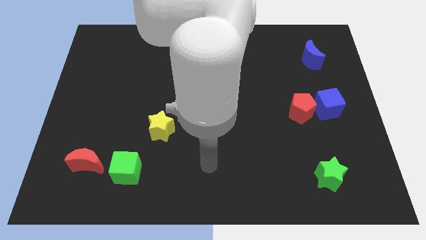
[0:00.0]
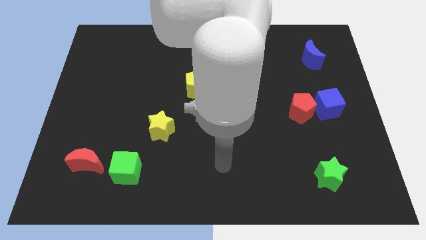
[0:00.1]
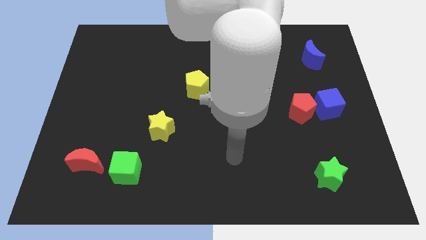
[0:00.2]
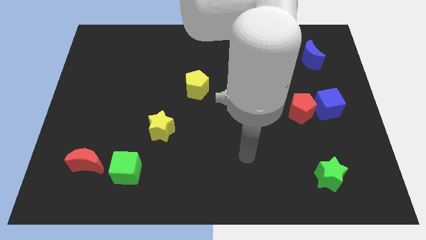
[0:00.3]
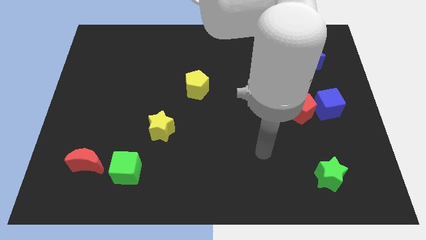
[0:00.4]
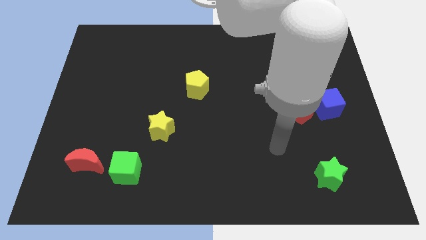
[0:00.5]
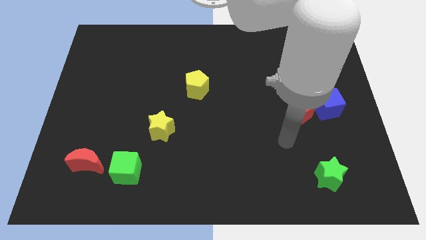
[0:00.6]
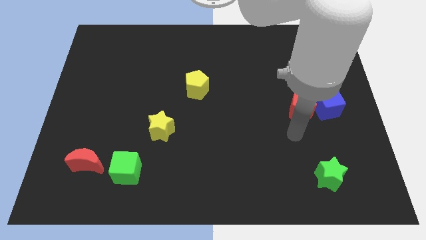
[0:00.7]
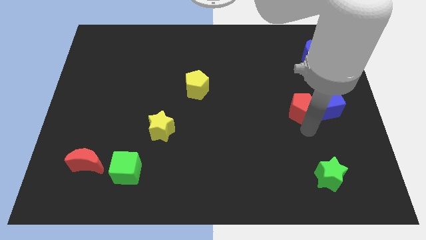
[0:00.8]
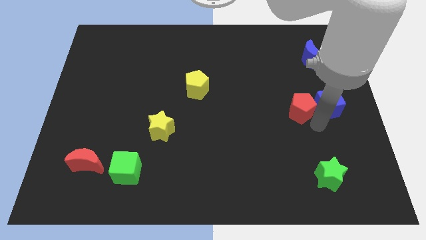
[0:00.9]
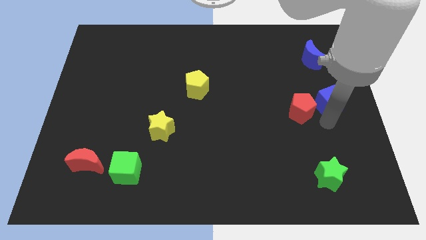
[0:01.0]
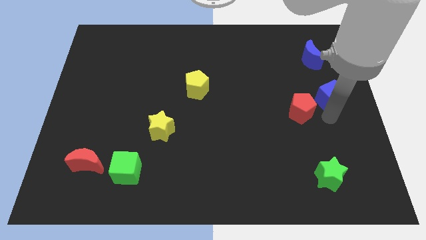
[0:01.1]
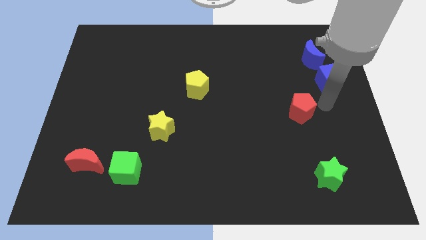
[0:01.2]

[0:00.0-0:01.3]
move the red pentagon away from the blue cube

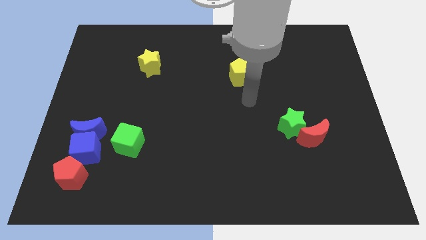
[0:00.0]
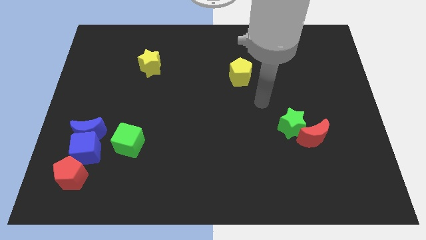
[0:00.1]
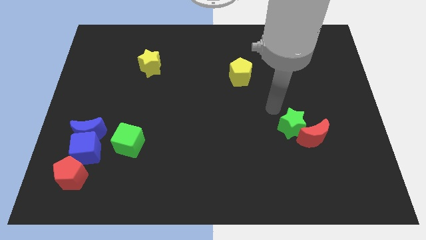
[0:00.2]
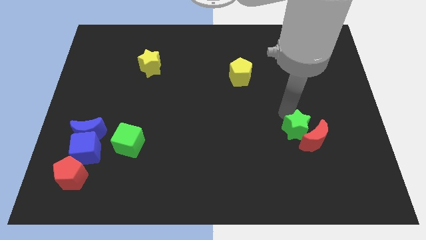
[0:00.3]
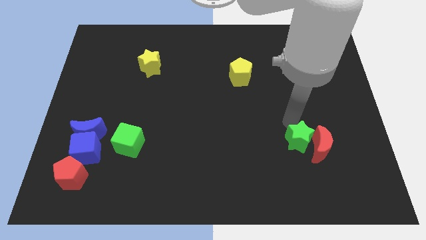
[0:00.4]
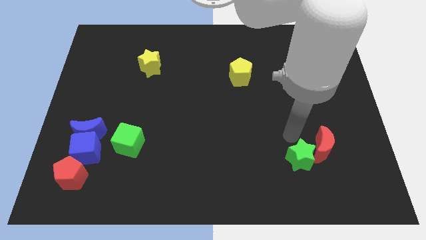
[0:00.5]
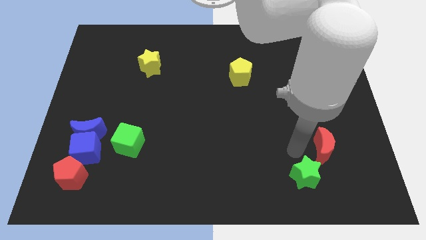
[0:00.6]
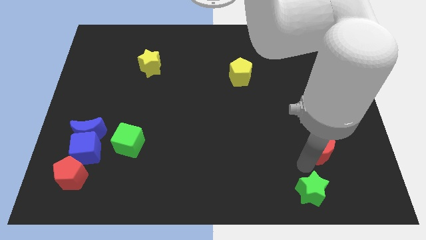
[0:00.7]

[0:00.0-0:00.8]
separate the red moon from the green star

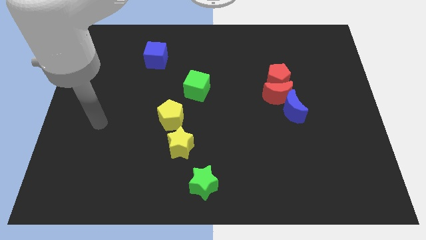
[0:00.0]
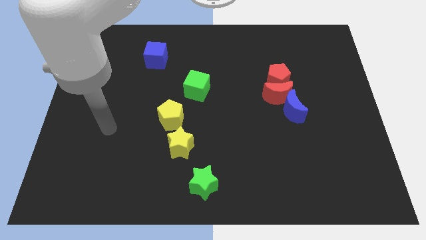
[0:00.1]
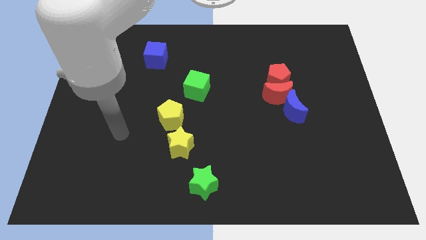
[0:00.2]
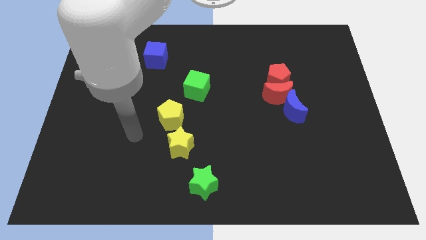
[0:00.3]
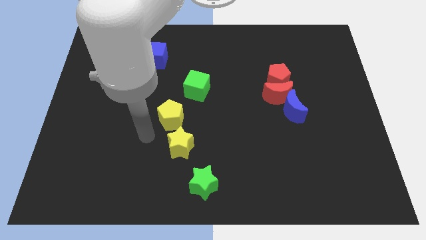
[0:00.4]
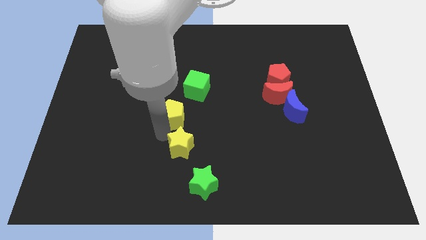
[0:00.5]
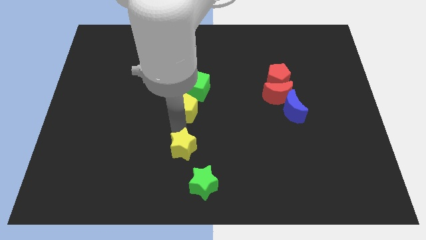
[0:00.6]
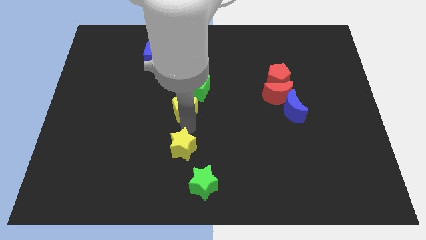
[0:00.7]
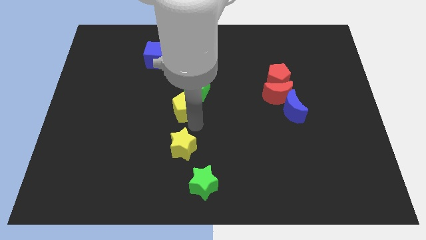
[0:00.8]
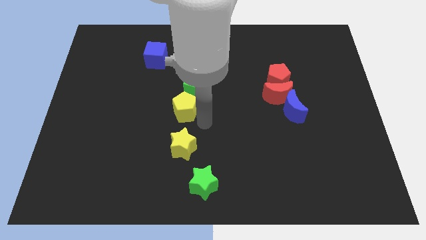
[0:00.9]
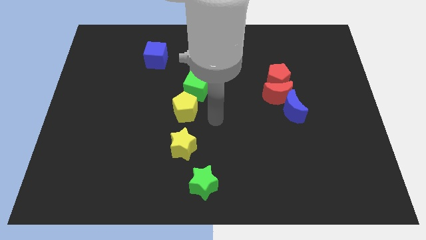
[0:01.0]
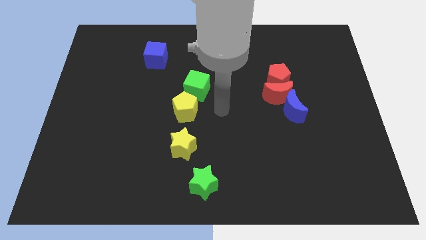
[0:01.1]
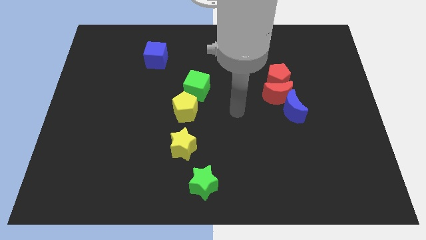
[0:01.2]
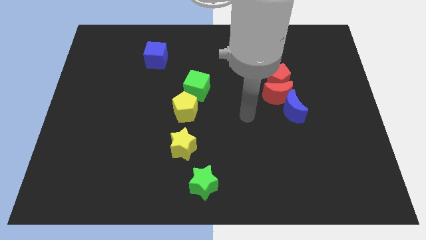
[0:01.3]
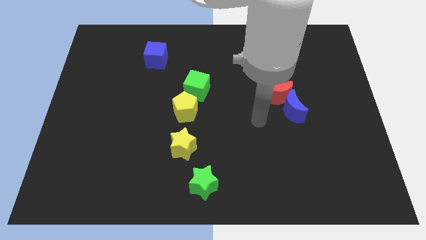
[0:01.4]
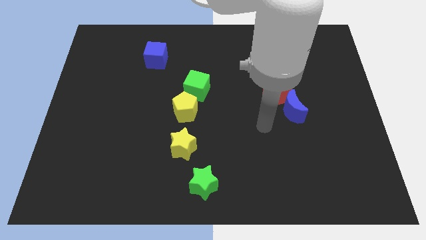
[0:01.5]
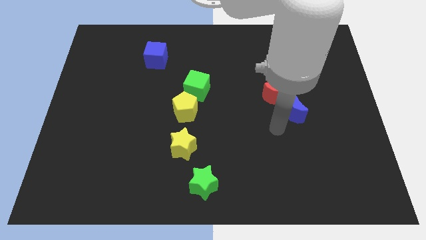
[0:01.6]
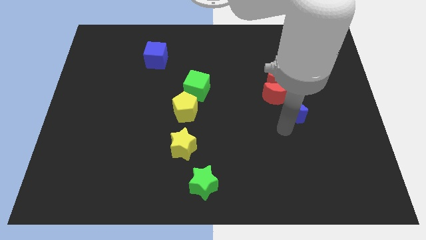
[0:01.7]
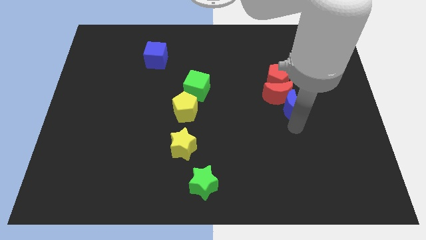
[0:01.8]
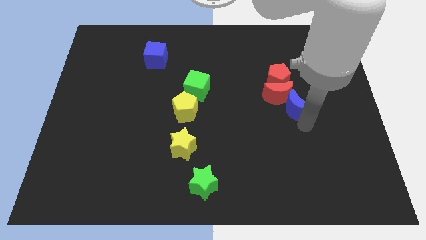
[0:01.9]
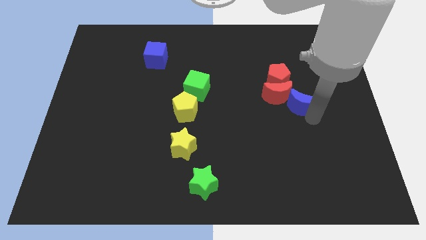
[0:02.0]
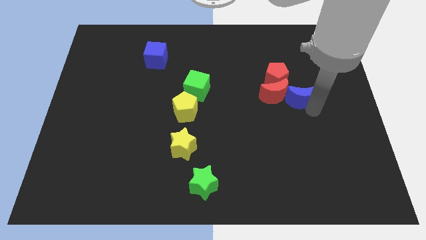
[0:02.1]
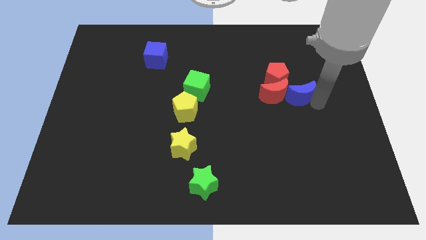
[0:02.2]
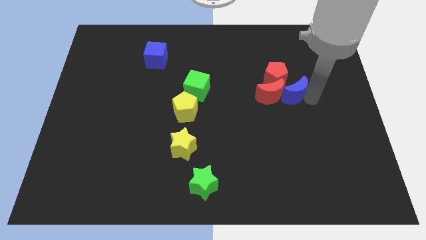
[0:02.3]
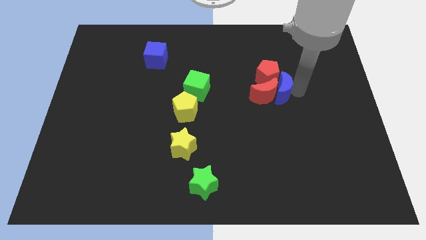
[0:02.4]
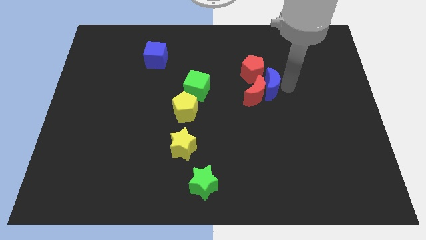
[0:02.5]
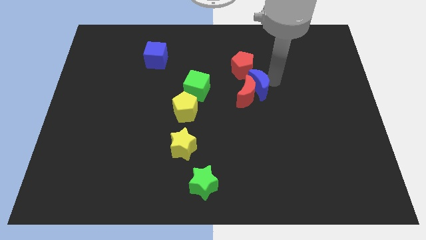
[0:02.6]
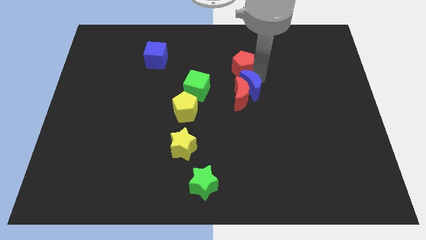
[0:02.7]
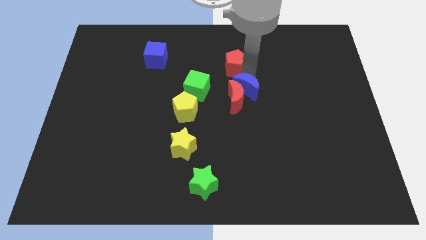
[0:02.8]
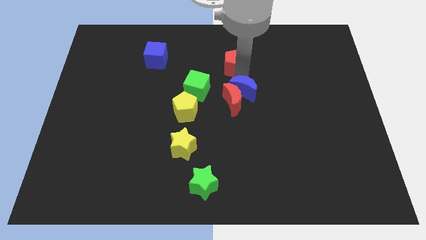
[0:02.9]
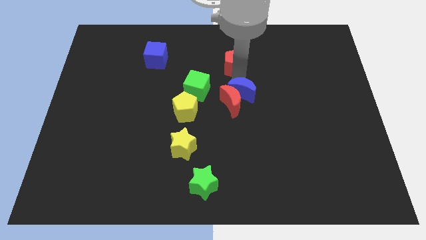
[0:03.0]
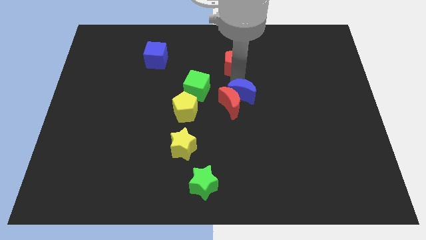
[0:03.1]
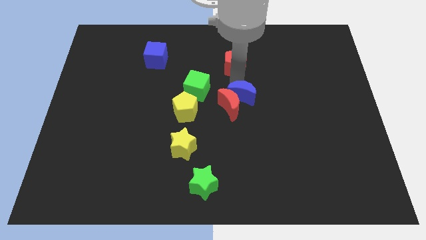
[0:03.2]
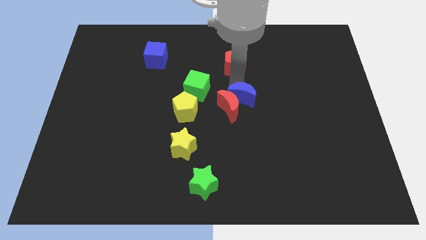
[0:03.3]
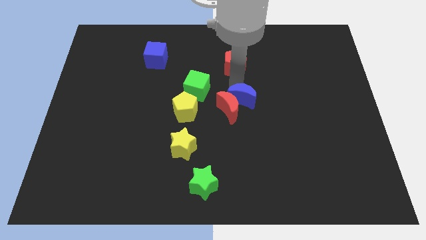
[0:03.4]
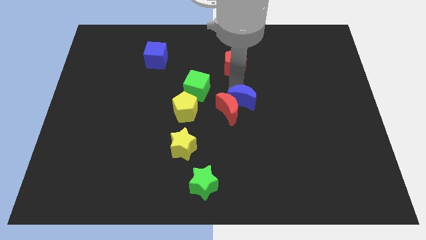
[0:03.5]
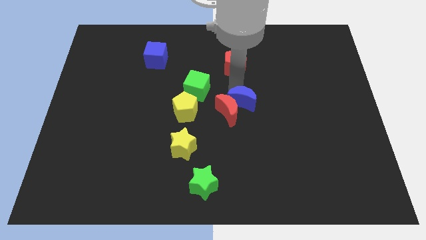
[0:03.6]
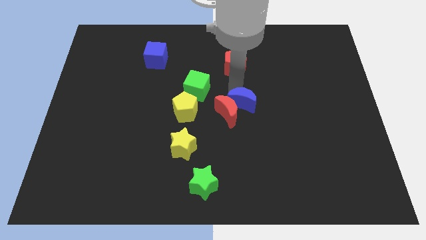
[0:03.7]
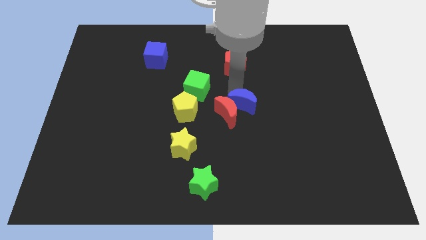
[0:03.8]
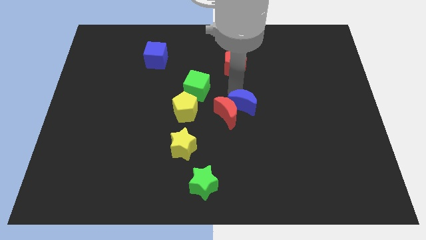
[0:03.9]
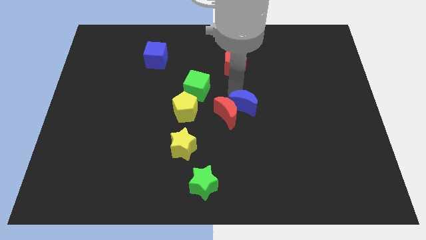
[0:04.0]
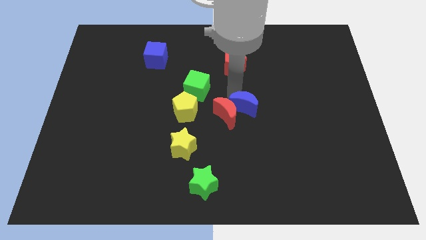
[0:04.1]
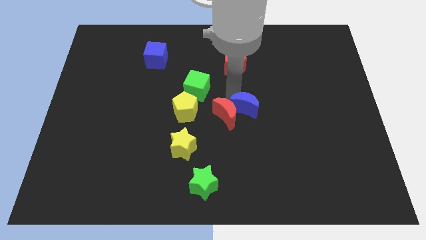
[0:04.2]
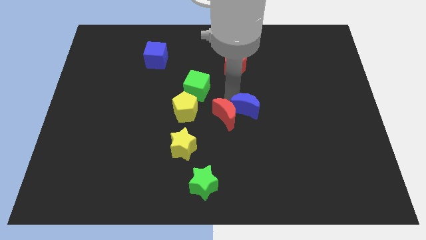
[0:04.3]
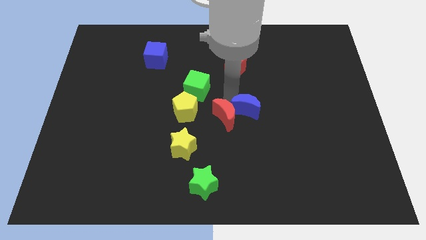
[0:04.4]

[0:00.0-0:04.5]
move the red moon away from the red pentagon and blue moon

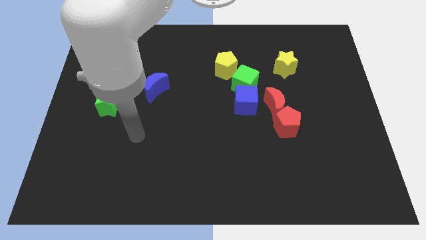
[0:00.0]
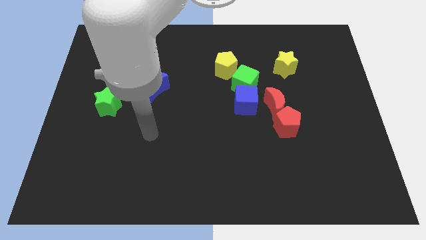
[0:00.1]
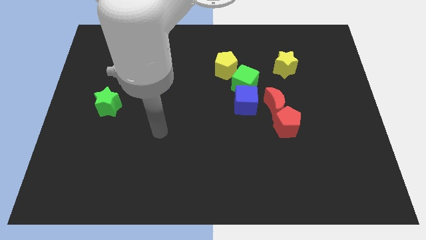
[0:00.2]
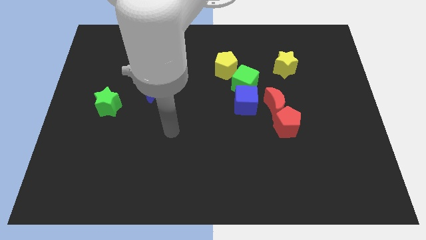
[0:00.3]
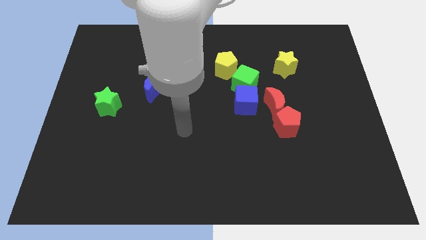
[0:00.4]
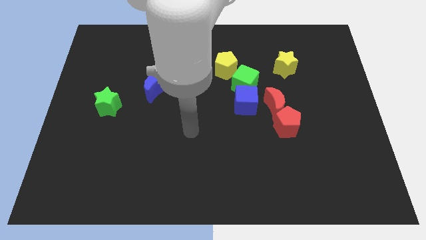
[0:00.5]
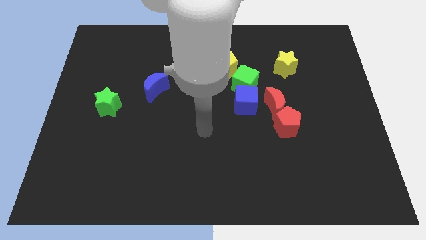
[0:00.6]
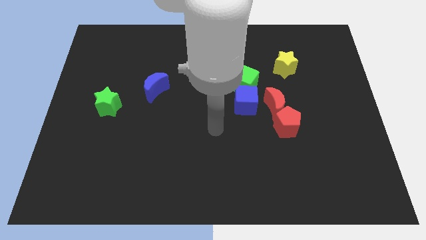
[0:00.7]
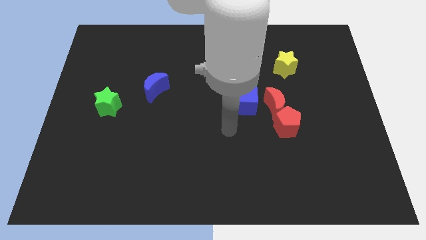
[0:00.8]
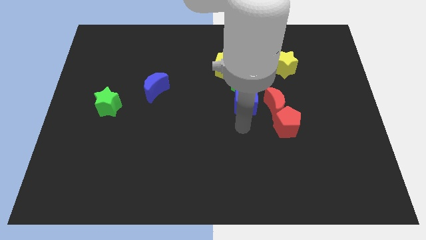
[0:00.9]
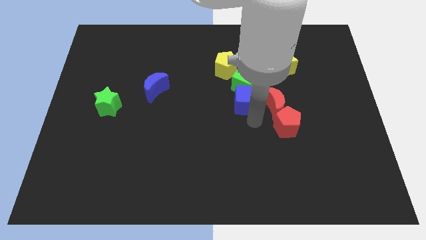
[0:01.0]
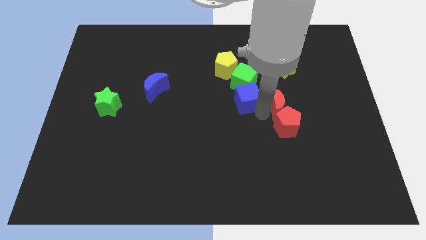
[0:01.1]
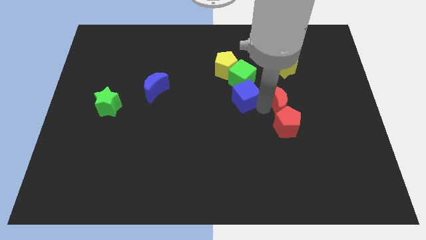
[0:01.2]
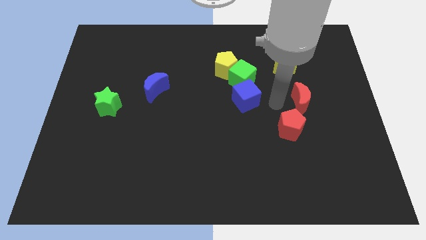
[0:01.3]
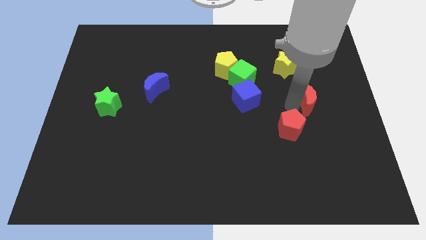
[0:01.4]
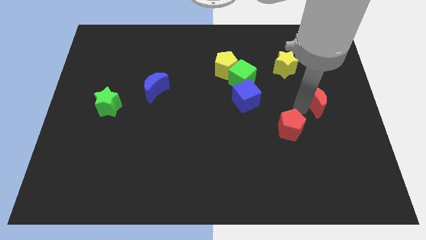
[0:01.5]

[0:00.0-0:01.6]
pull the red pentagon apart from the red moon

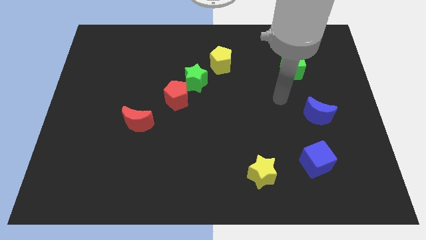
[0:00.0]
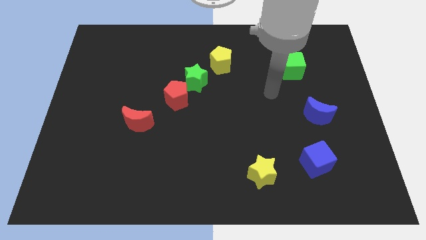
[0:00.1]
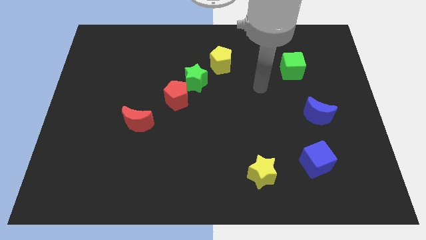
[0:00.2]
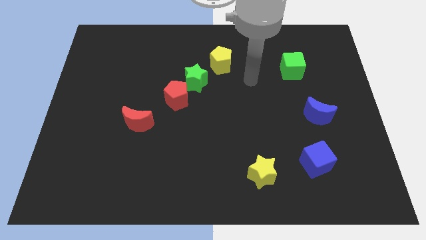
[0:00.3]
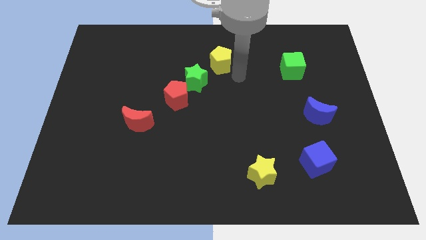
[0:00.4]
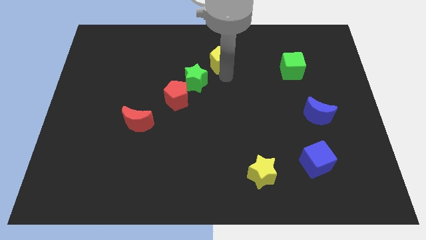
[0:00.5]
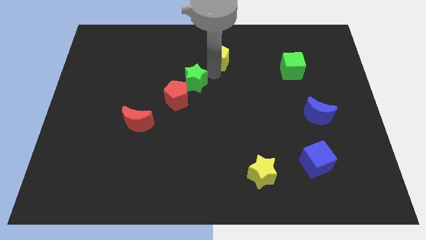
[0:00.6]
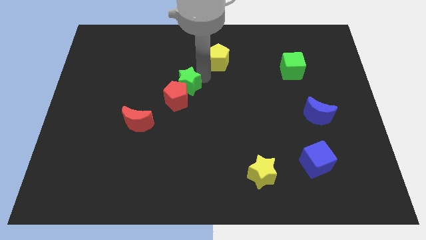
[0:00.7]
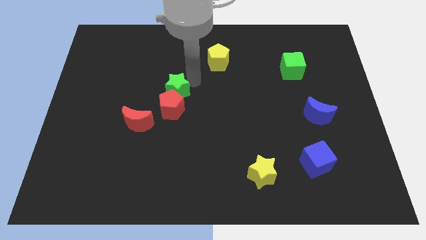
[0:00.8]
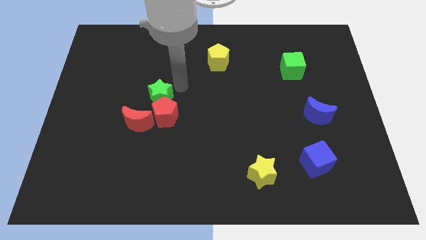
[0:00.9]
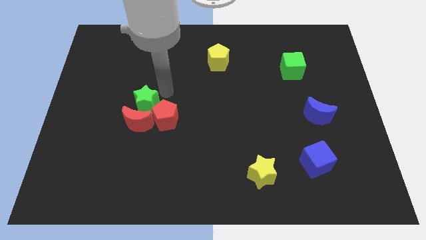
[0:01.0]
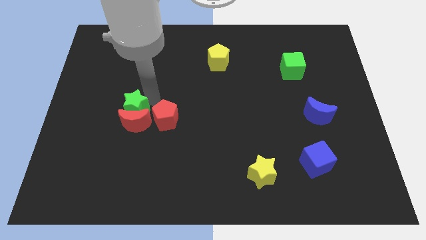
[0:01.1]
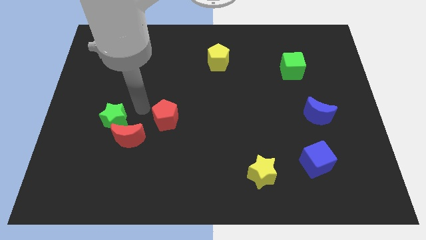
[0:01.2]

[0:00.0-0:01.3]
pull the red pentagon apart from the green star

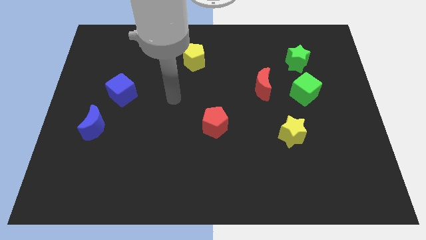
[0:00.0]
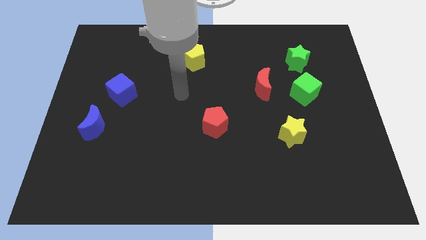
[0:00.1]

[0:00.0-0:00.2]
move the green star away from the green cube
